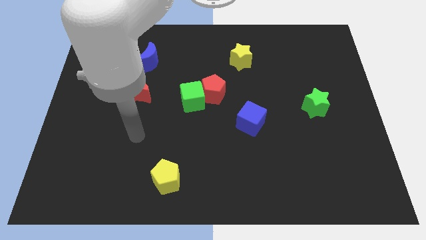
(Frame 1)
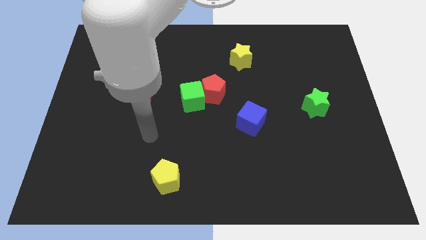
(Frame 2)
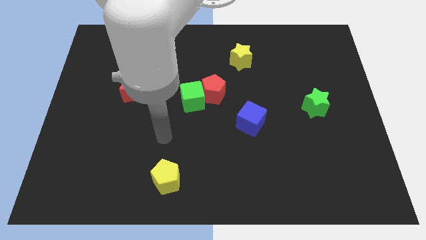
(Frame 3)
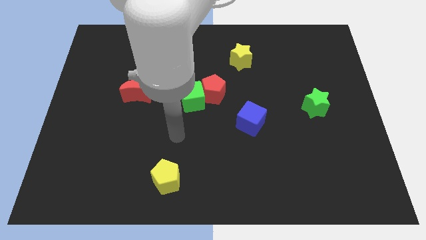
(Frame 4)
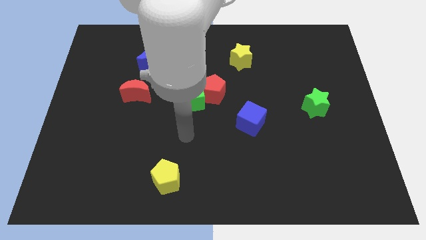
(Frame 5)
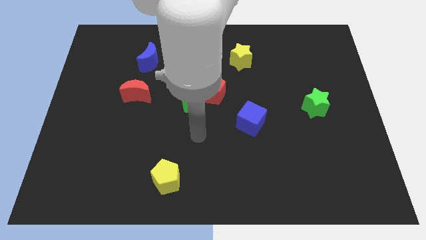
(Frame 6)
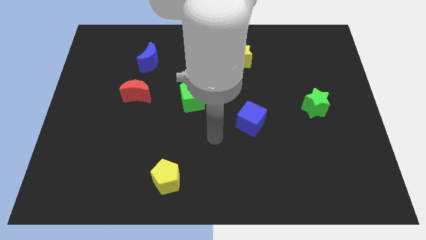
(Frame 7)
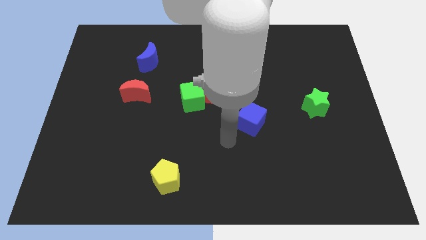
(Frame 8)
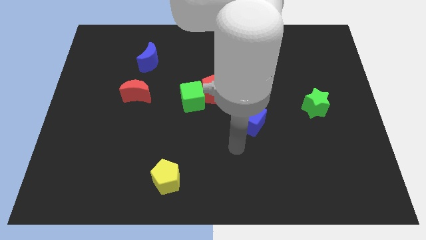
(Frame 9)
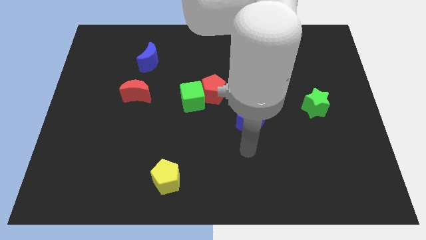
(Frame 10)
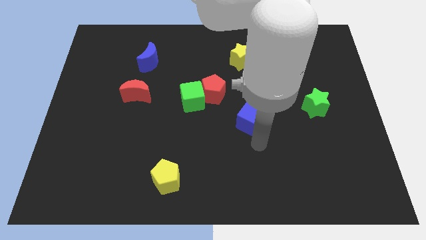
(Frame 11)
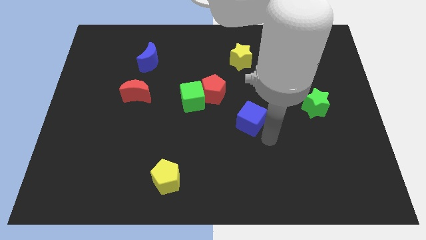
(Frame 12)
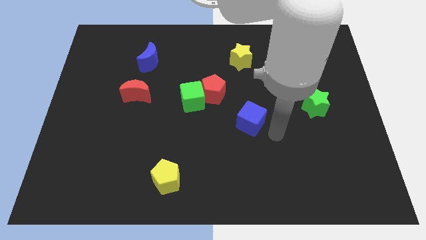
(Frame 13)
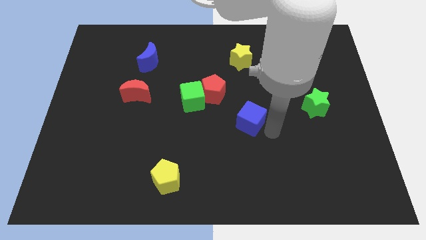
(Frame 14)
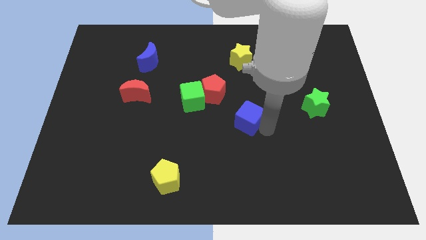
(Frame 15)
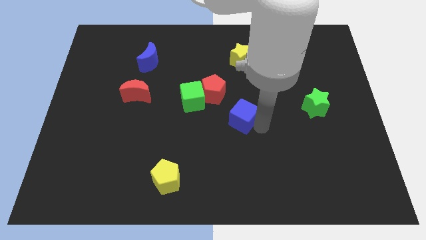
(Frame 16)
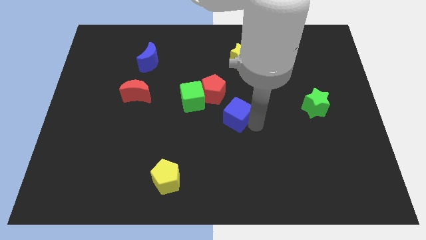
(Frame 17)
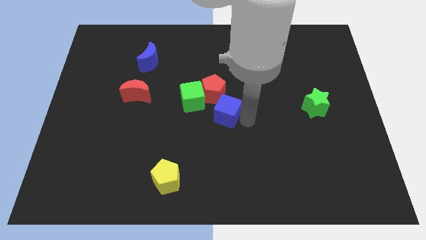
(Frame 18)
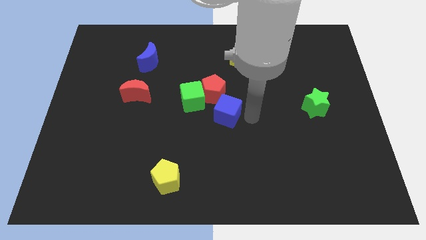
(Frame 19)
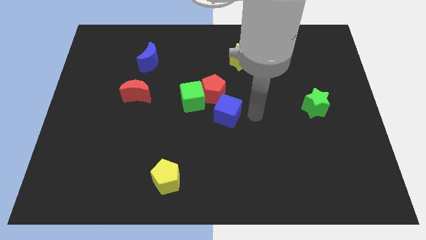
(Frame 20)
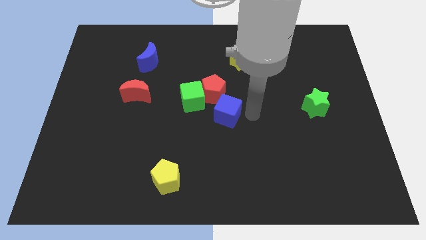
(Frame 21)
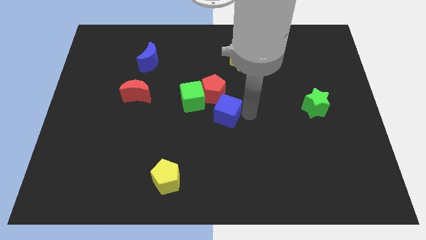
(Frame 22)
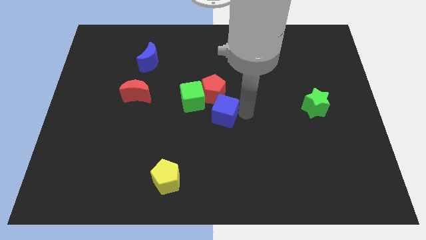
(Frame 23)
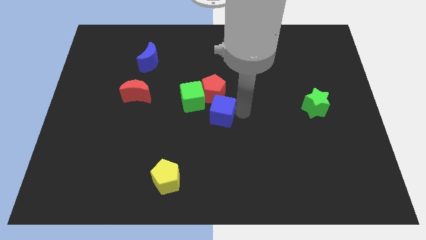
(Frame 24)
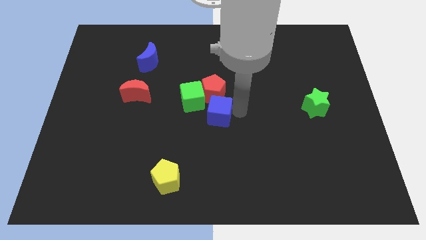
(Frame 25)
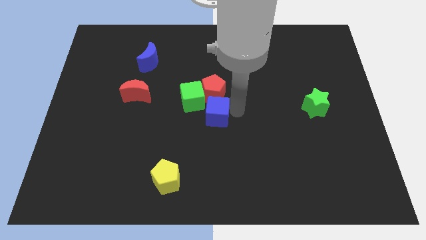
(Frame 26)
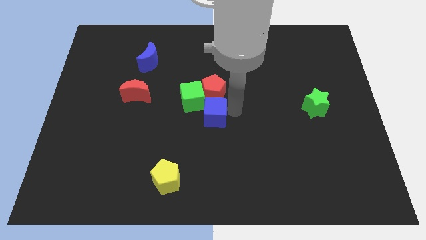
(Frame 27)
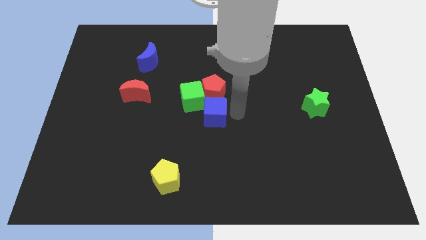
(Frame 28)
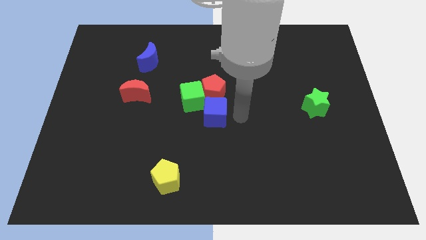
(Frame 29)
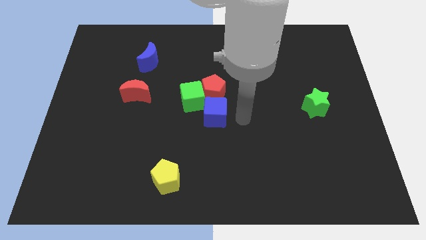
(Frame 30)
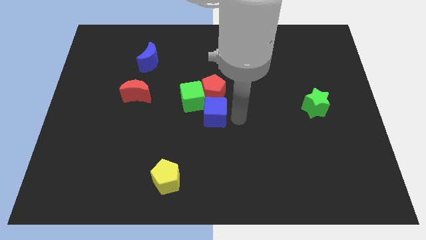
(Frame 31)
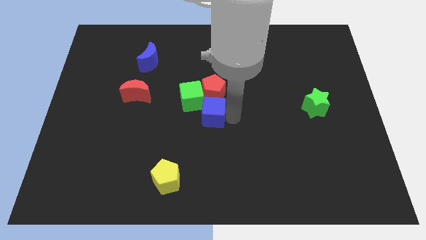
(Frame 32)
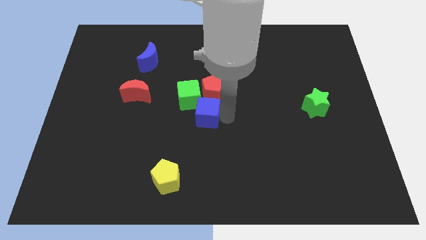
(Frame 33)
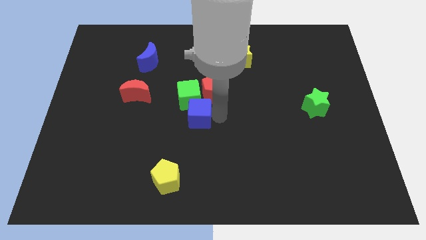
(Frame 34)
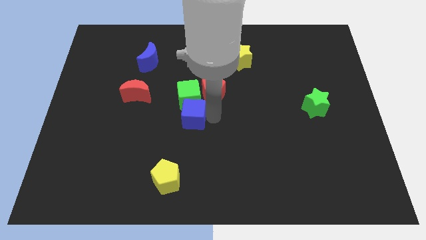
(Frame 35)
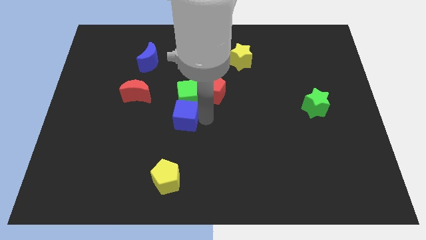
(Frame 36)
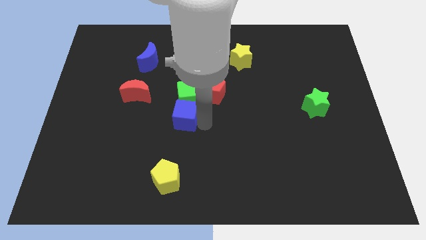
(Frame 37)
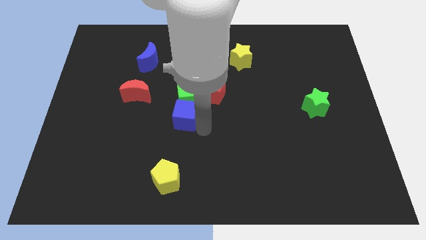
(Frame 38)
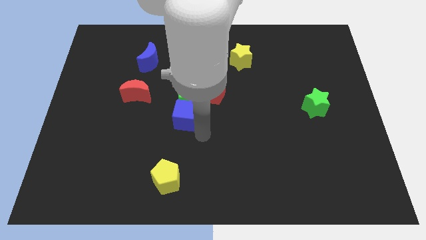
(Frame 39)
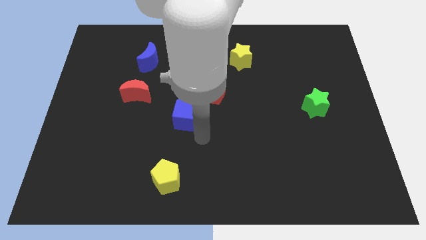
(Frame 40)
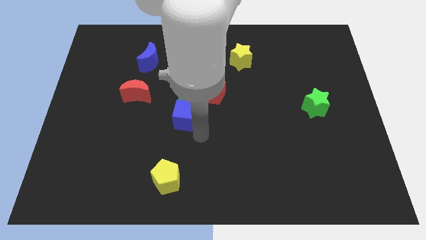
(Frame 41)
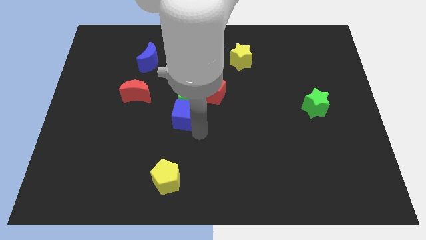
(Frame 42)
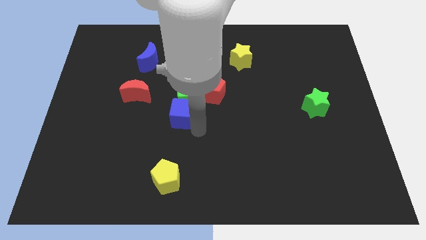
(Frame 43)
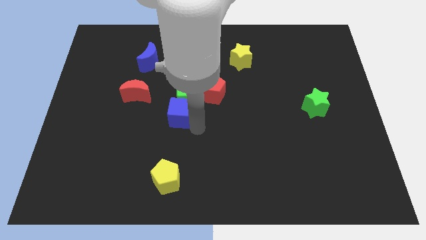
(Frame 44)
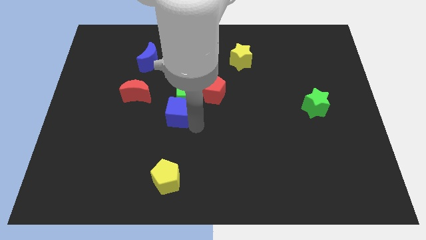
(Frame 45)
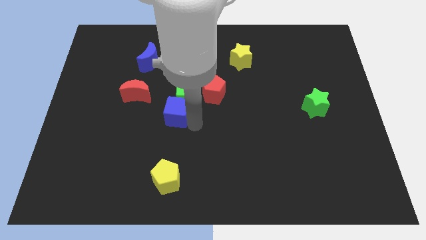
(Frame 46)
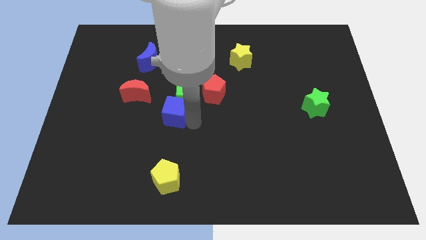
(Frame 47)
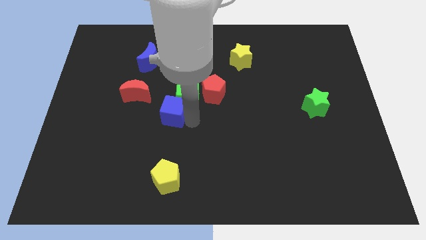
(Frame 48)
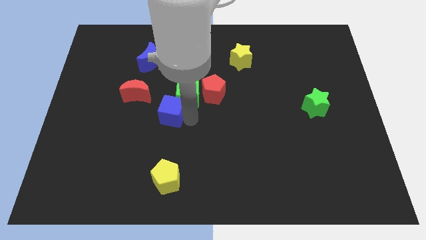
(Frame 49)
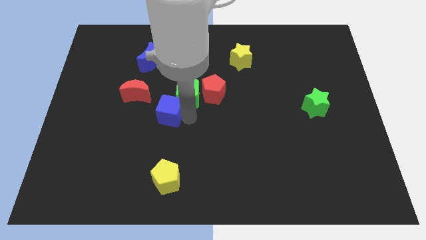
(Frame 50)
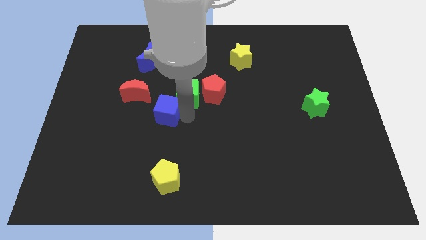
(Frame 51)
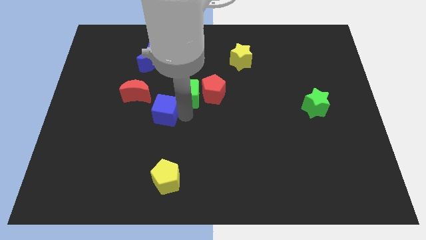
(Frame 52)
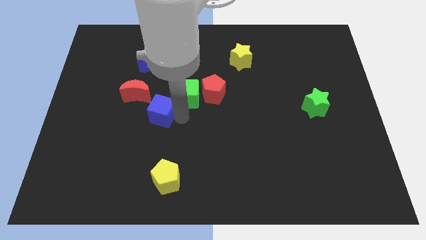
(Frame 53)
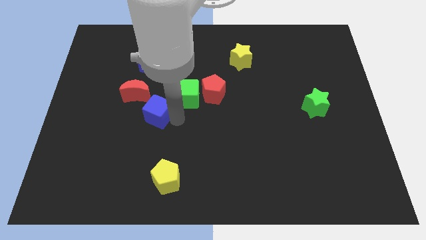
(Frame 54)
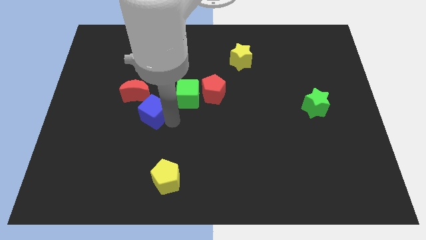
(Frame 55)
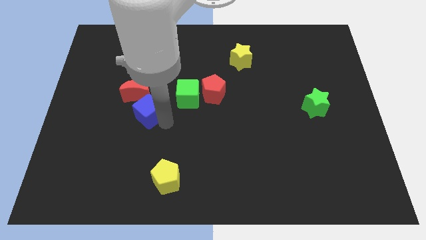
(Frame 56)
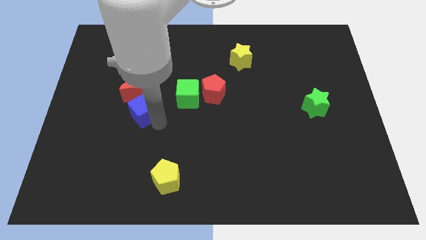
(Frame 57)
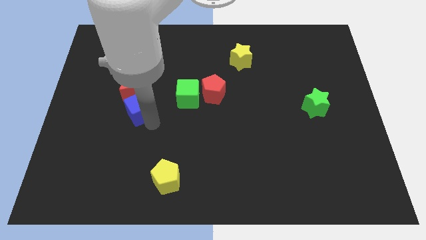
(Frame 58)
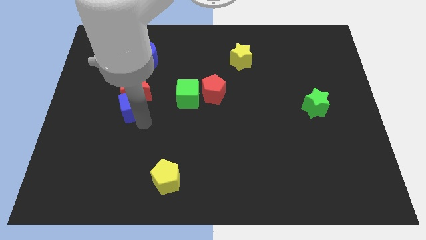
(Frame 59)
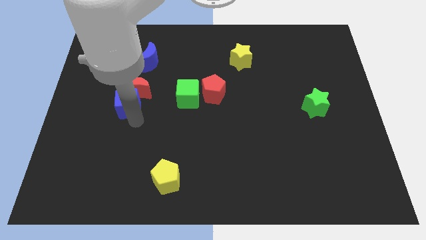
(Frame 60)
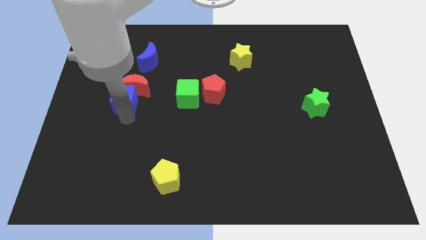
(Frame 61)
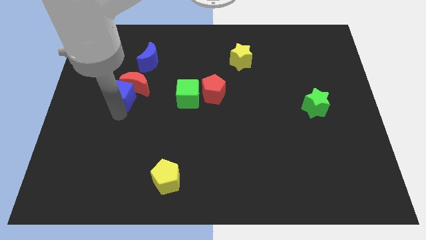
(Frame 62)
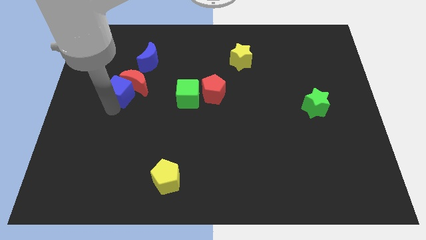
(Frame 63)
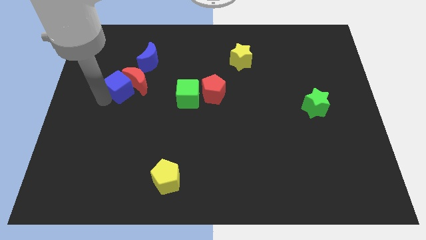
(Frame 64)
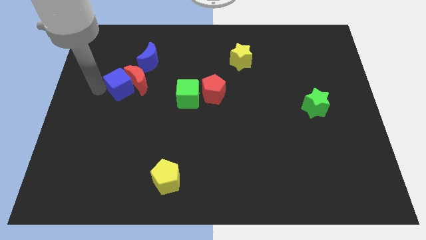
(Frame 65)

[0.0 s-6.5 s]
push the blue cube diagonally up and to the left of the red moon

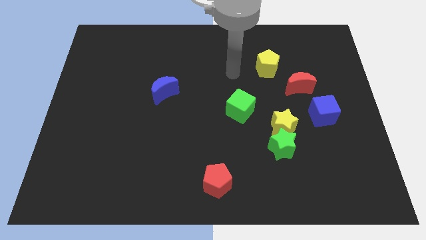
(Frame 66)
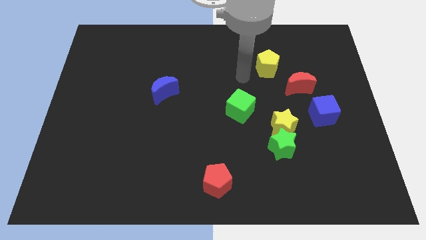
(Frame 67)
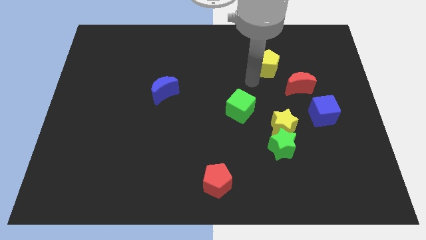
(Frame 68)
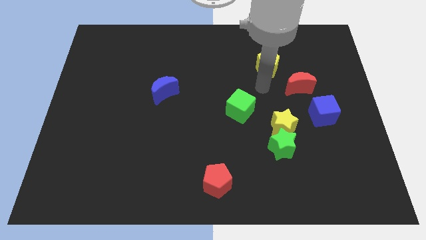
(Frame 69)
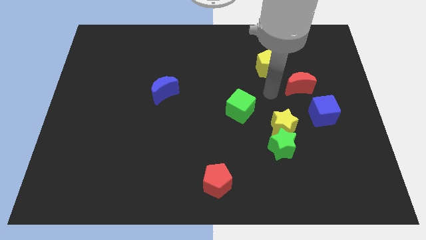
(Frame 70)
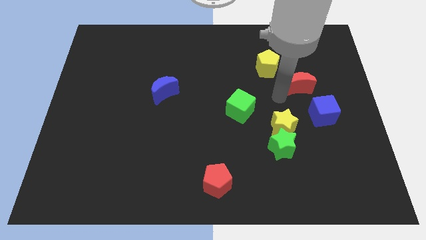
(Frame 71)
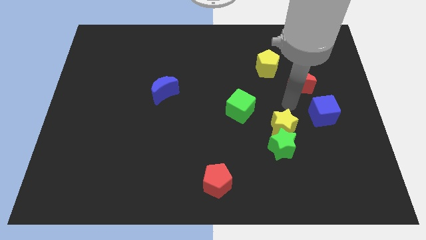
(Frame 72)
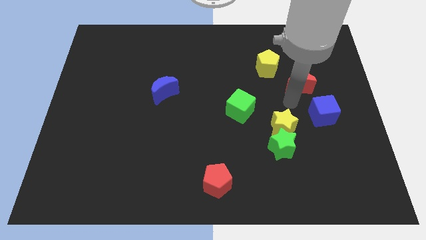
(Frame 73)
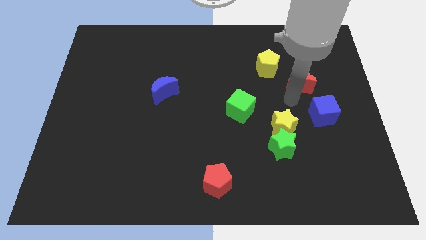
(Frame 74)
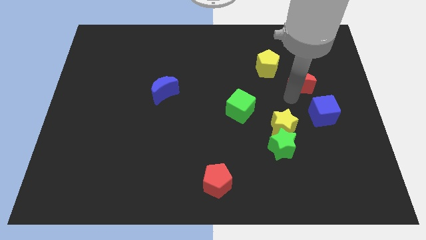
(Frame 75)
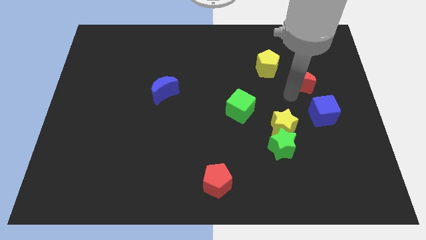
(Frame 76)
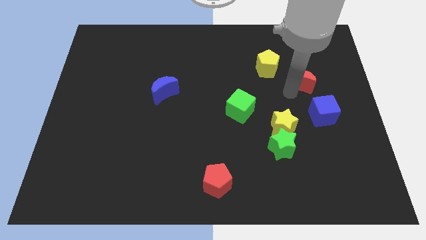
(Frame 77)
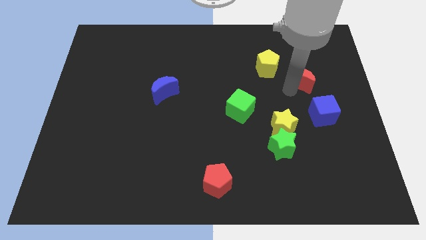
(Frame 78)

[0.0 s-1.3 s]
slide the red moon right of the yellow pentagon
